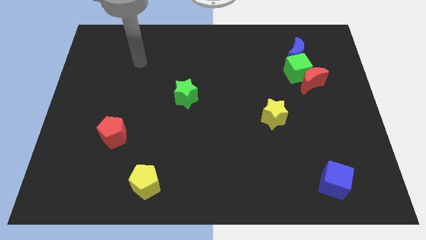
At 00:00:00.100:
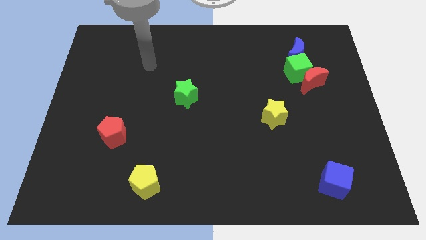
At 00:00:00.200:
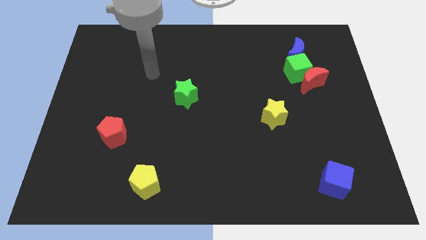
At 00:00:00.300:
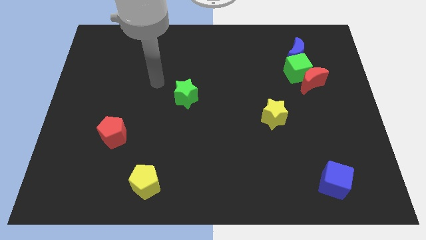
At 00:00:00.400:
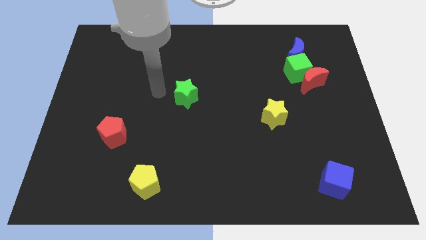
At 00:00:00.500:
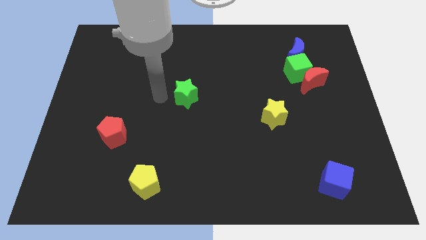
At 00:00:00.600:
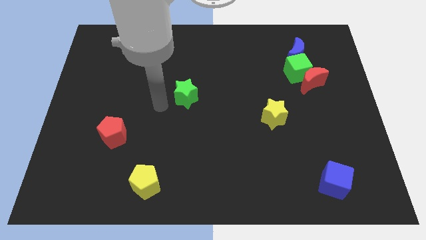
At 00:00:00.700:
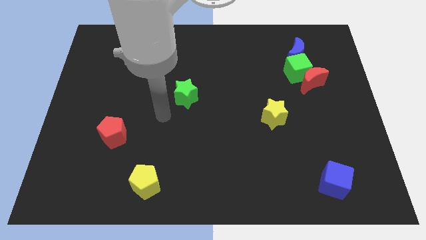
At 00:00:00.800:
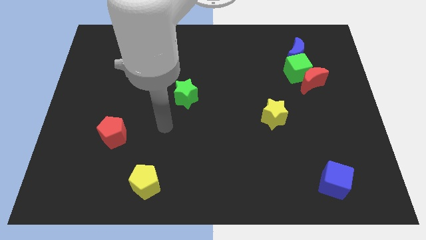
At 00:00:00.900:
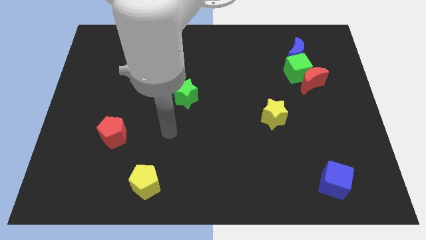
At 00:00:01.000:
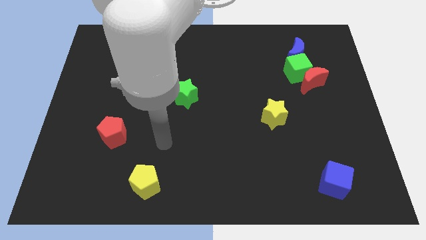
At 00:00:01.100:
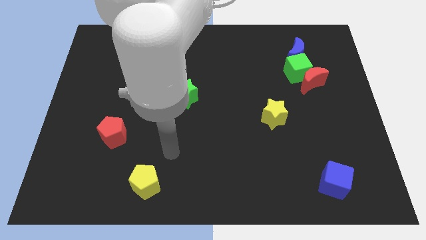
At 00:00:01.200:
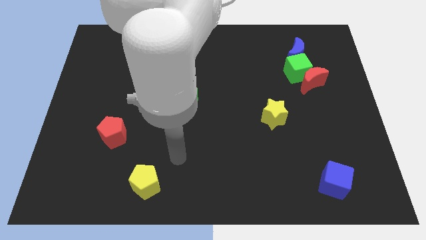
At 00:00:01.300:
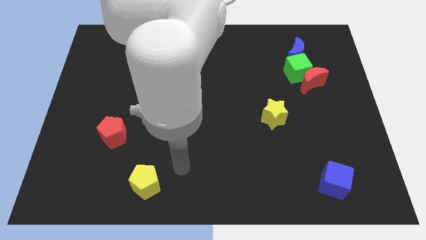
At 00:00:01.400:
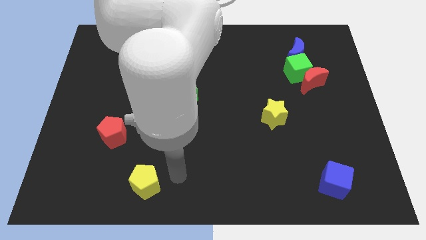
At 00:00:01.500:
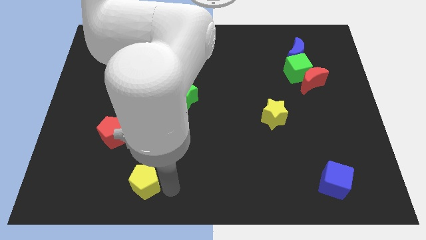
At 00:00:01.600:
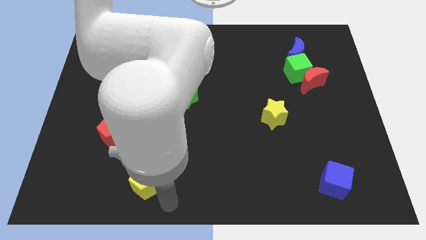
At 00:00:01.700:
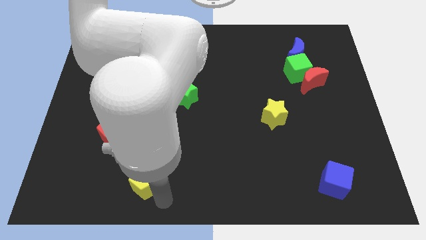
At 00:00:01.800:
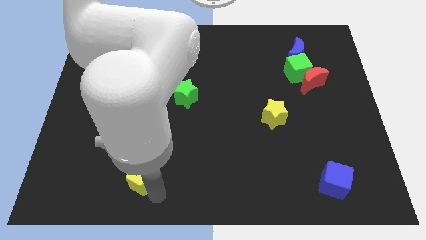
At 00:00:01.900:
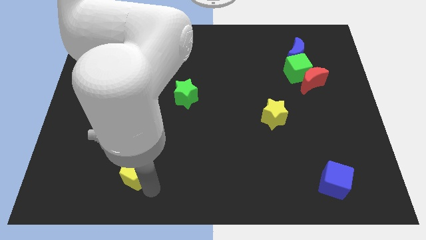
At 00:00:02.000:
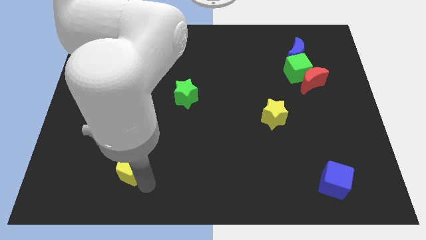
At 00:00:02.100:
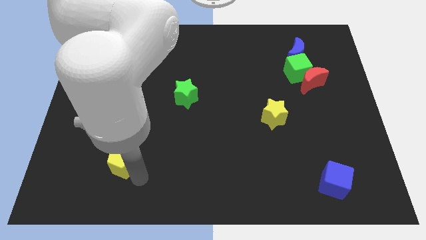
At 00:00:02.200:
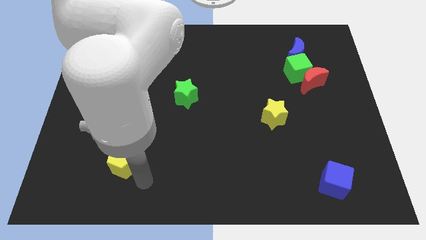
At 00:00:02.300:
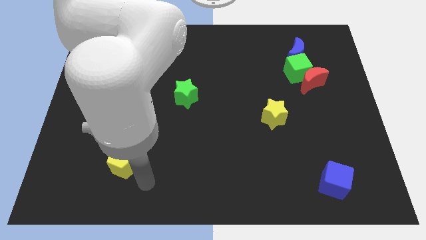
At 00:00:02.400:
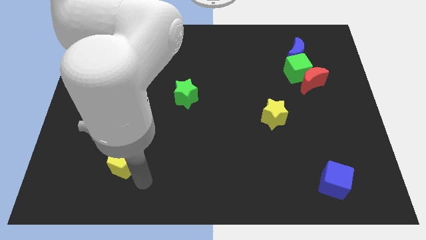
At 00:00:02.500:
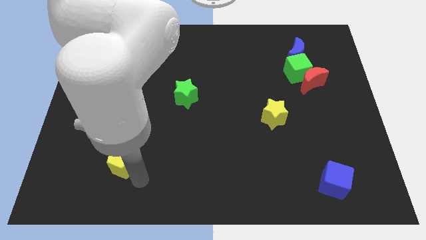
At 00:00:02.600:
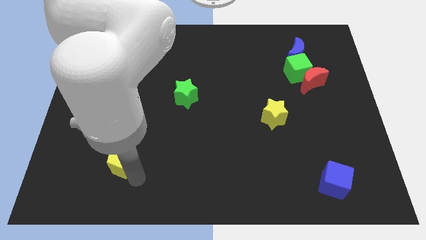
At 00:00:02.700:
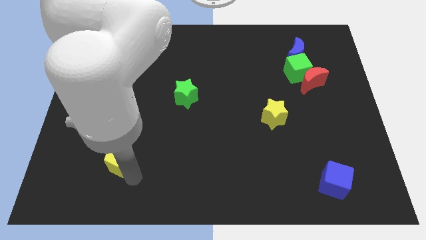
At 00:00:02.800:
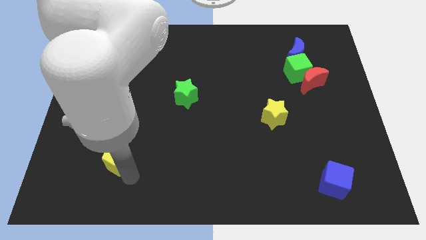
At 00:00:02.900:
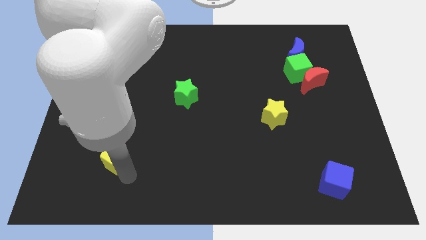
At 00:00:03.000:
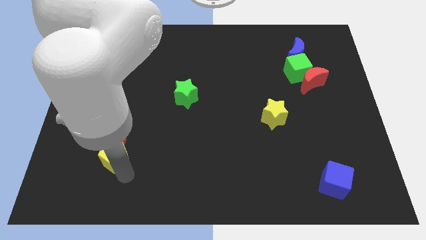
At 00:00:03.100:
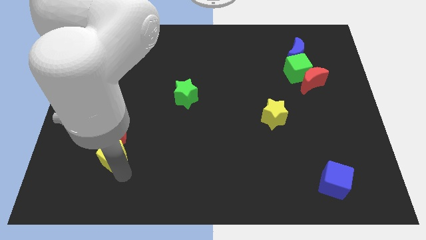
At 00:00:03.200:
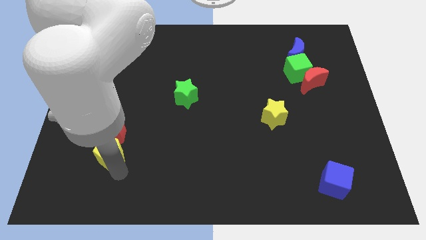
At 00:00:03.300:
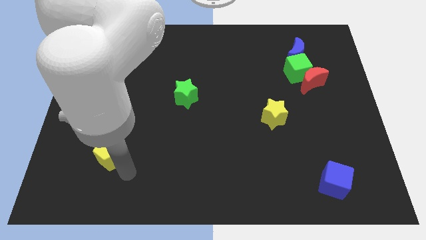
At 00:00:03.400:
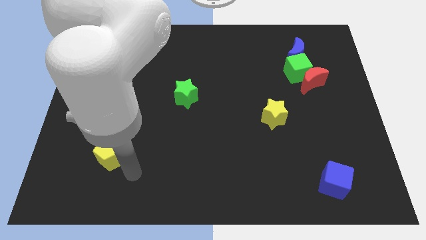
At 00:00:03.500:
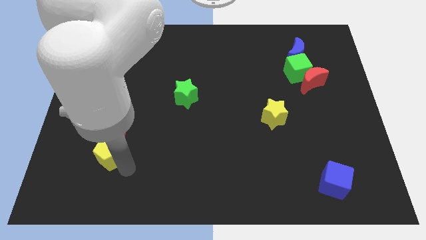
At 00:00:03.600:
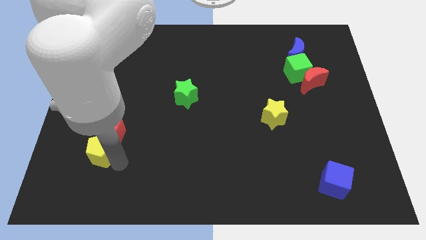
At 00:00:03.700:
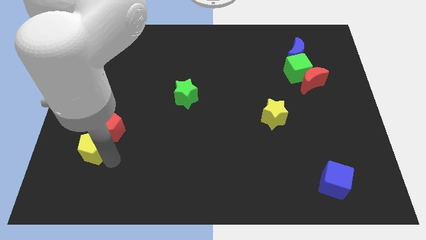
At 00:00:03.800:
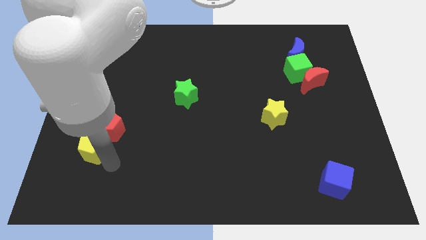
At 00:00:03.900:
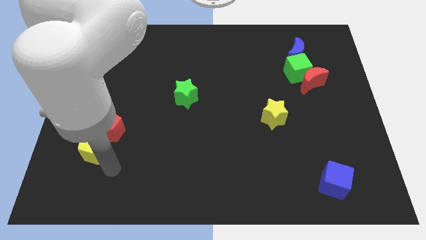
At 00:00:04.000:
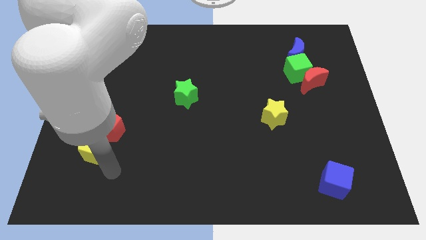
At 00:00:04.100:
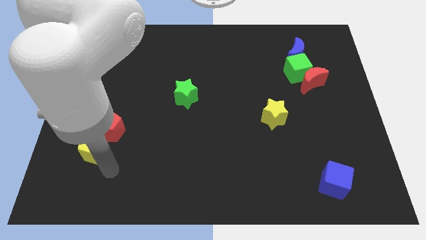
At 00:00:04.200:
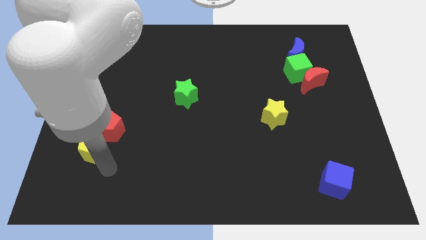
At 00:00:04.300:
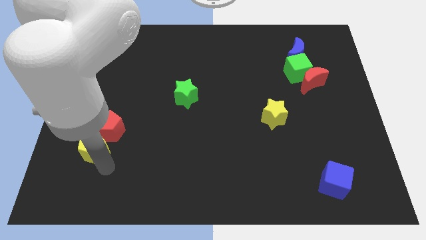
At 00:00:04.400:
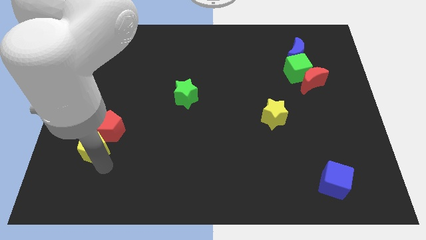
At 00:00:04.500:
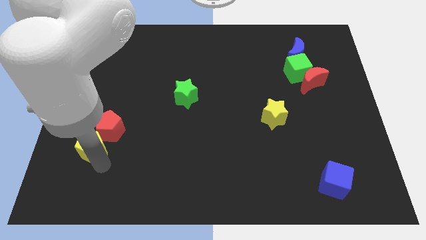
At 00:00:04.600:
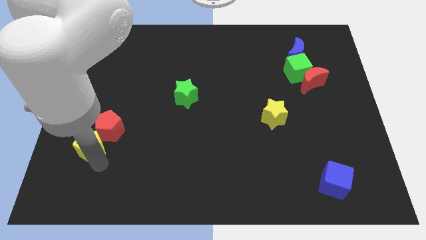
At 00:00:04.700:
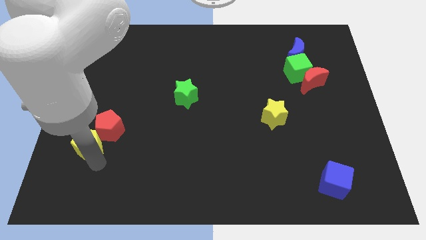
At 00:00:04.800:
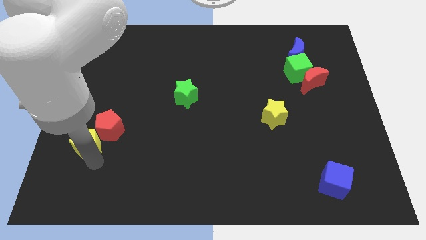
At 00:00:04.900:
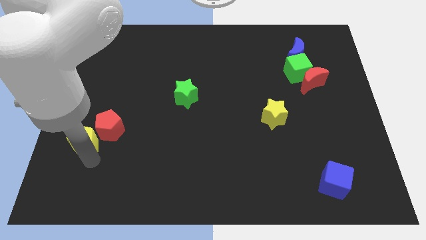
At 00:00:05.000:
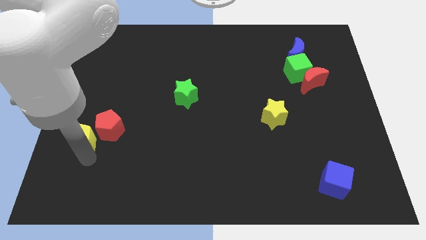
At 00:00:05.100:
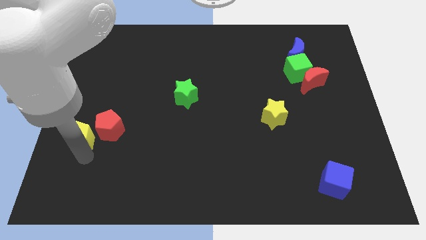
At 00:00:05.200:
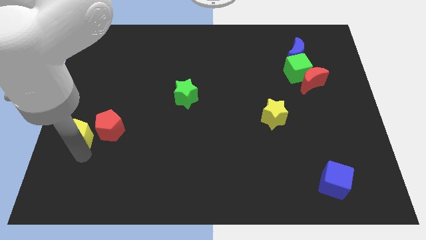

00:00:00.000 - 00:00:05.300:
push the yellow pentagon to the center left

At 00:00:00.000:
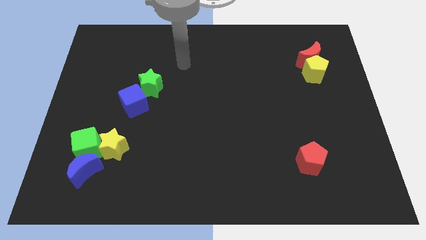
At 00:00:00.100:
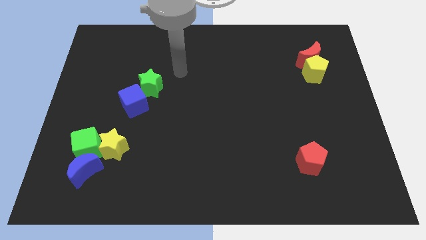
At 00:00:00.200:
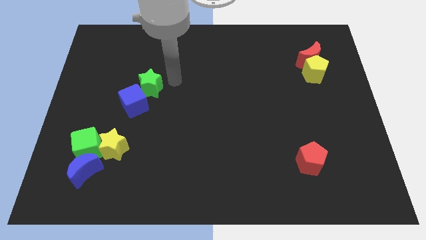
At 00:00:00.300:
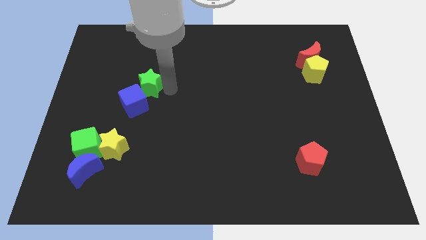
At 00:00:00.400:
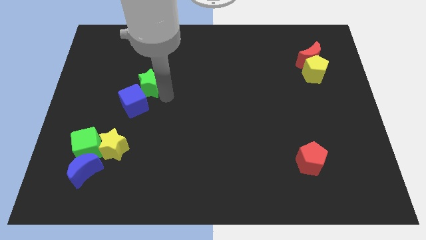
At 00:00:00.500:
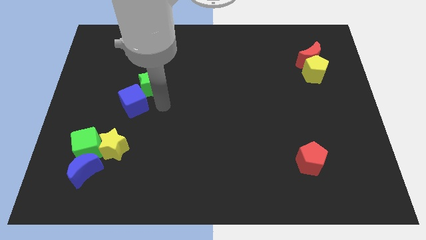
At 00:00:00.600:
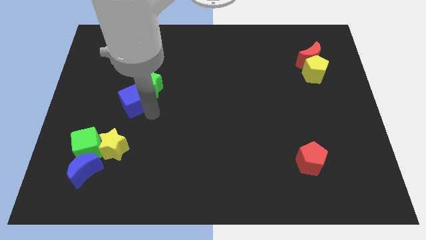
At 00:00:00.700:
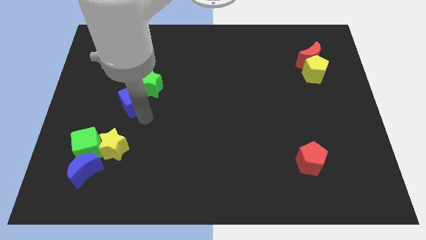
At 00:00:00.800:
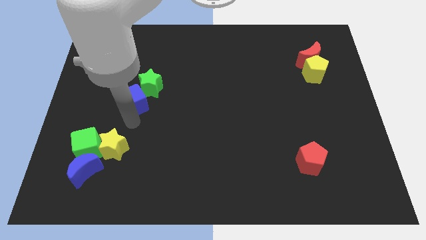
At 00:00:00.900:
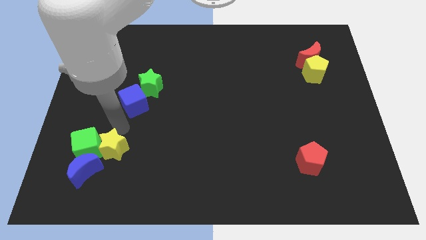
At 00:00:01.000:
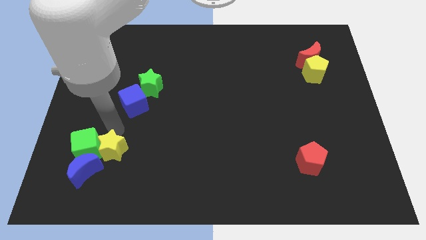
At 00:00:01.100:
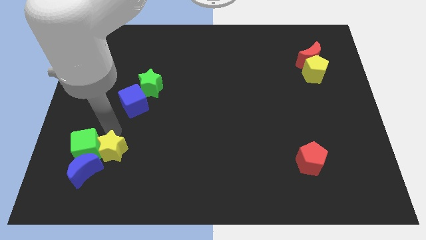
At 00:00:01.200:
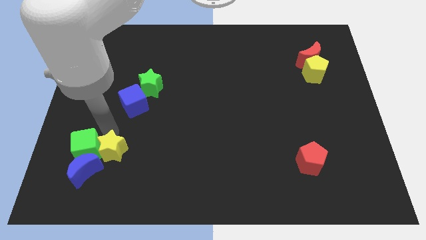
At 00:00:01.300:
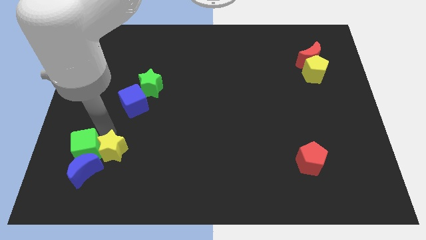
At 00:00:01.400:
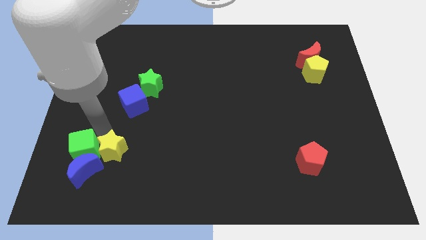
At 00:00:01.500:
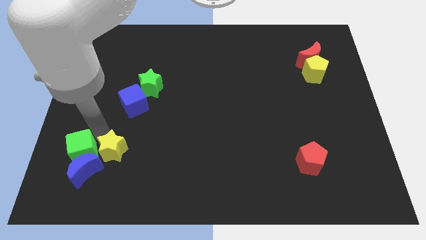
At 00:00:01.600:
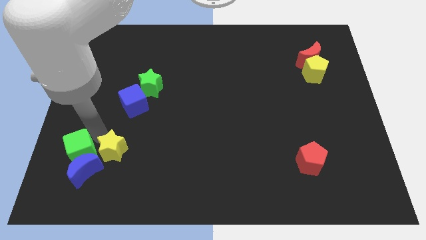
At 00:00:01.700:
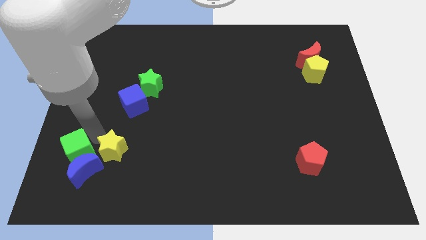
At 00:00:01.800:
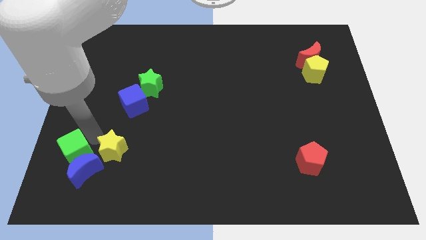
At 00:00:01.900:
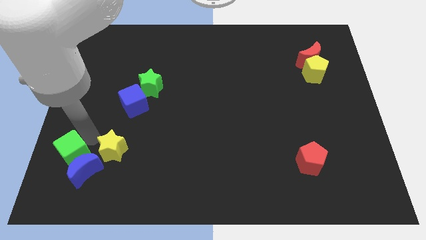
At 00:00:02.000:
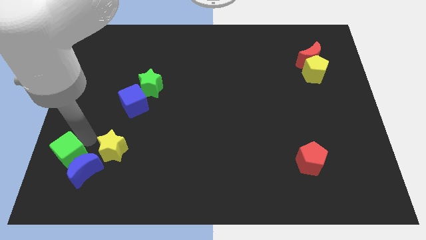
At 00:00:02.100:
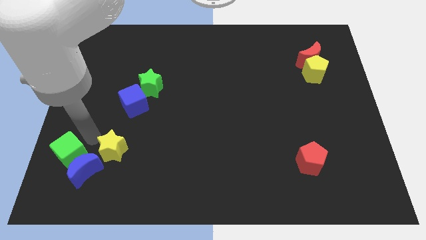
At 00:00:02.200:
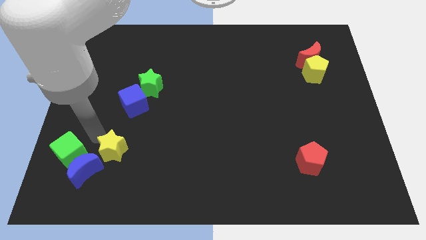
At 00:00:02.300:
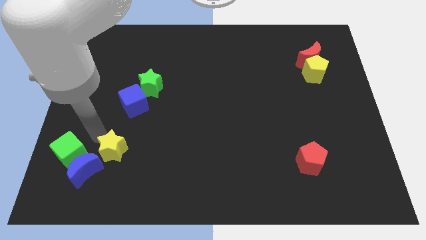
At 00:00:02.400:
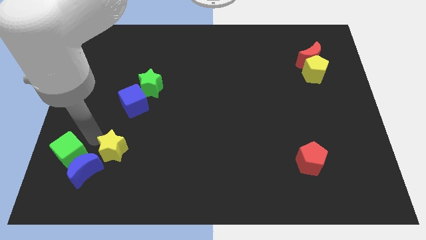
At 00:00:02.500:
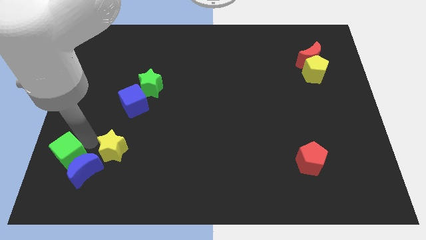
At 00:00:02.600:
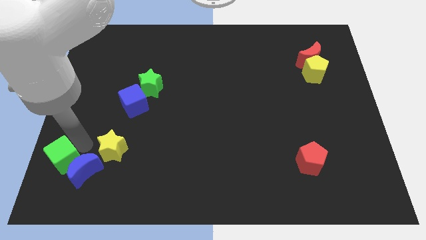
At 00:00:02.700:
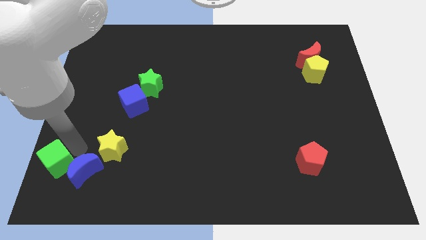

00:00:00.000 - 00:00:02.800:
put the green cube to the bottom left corner
